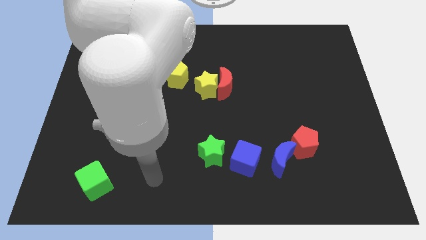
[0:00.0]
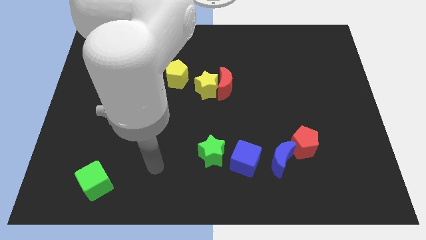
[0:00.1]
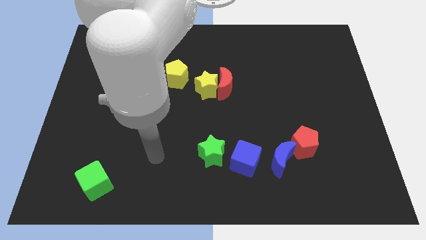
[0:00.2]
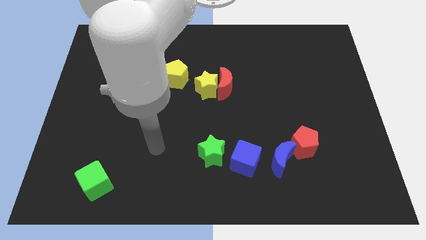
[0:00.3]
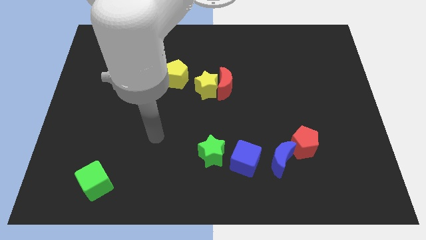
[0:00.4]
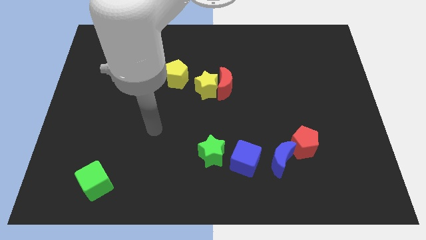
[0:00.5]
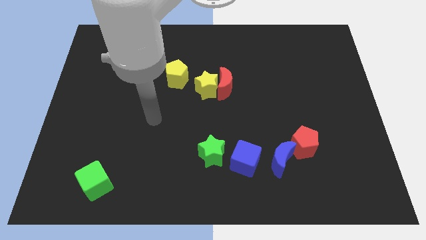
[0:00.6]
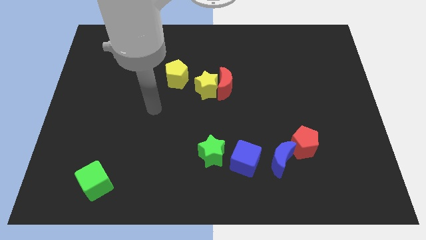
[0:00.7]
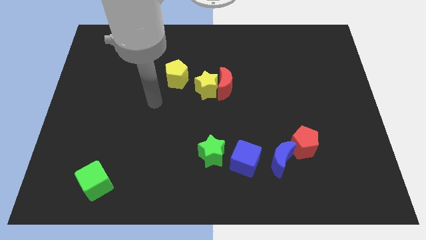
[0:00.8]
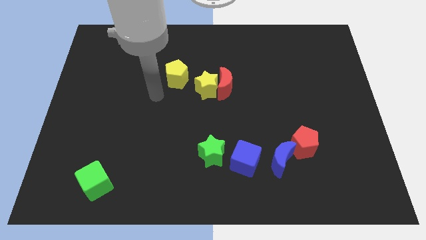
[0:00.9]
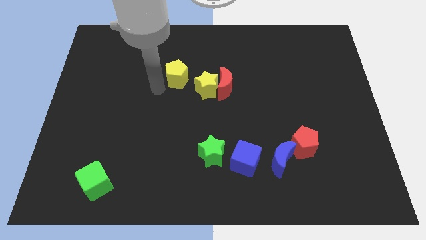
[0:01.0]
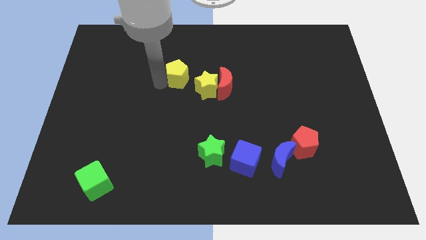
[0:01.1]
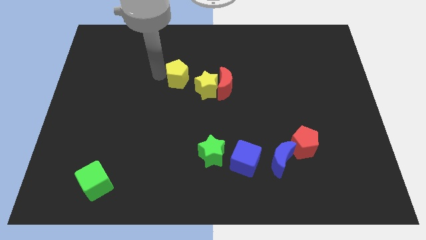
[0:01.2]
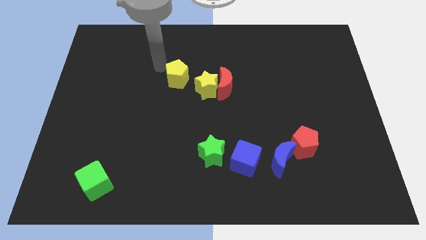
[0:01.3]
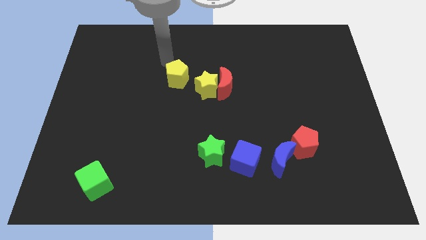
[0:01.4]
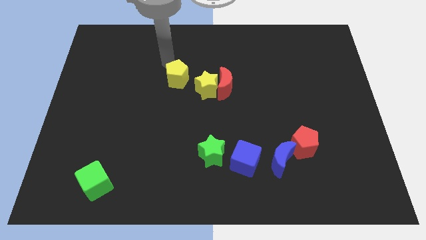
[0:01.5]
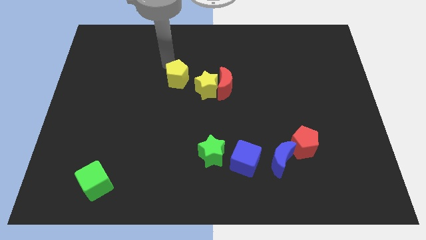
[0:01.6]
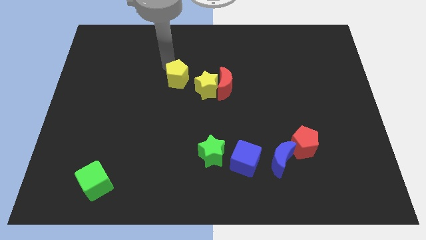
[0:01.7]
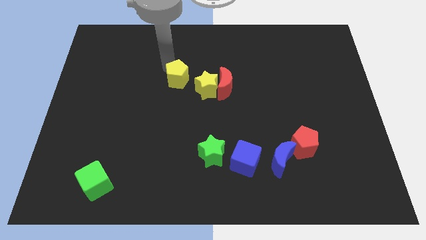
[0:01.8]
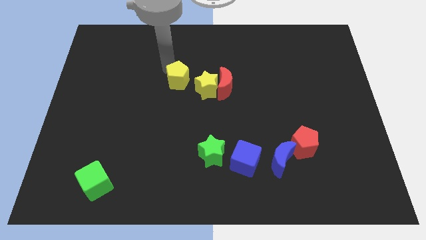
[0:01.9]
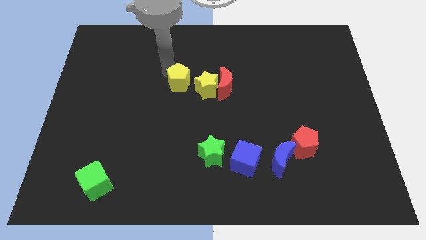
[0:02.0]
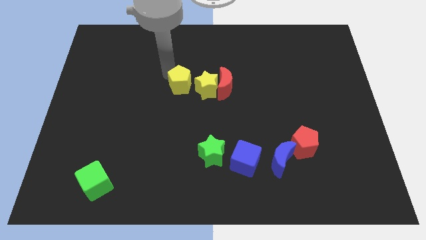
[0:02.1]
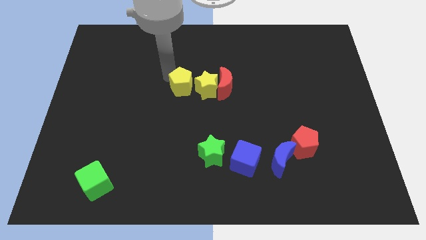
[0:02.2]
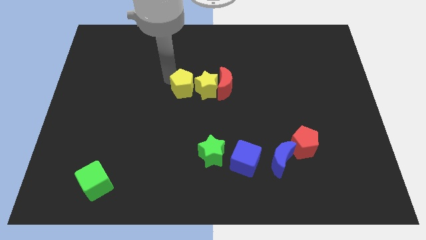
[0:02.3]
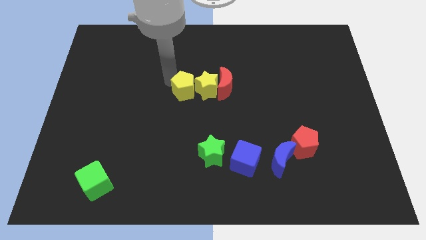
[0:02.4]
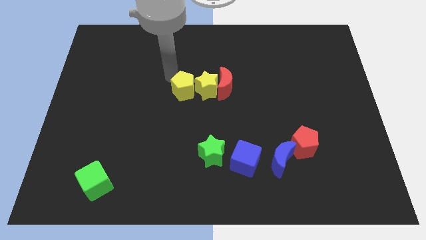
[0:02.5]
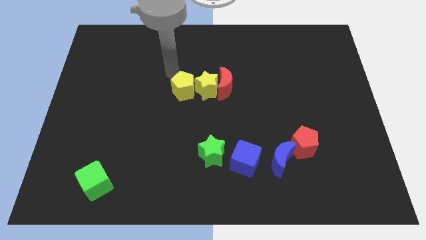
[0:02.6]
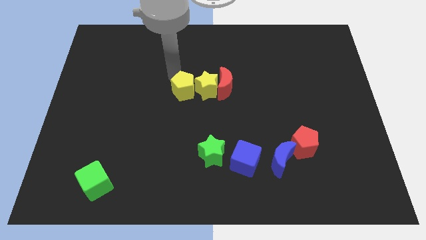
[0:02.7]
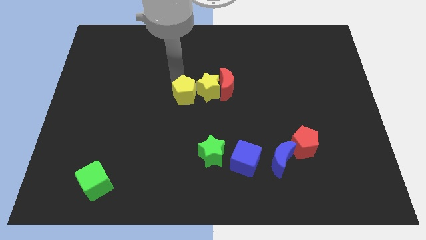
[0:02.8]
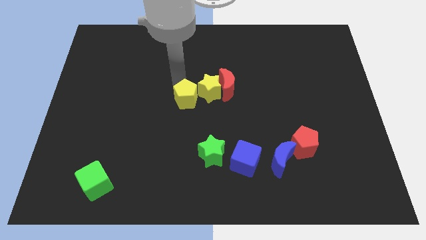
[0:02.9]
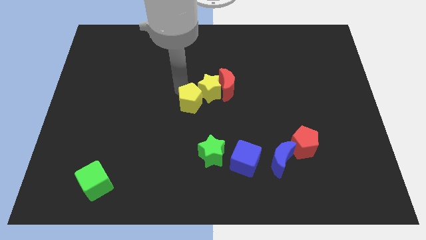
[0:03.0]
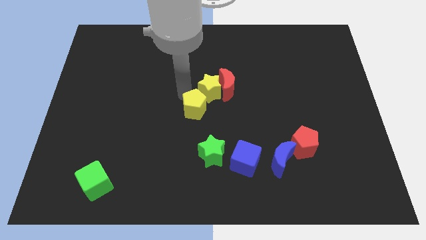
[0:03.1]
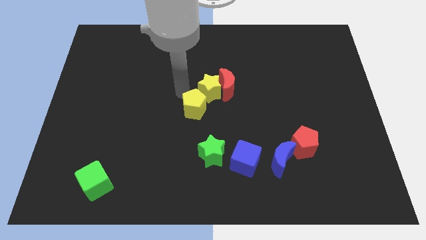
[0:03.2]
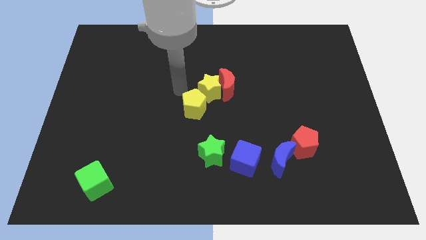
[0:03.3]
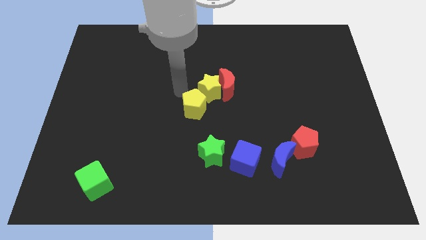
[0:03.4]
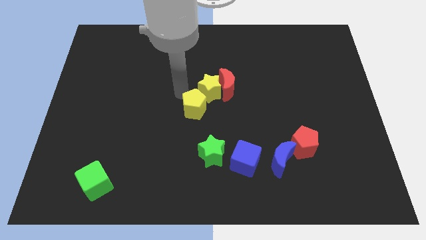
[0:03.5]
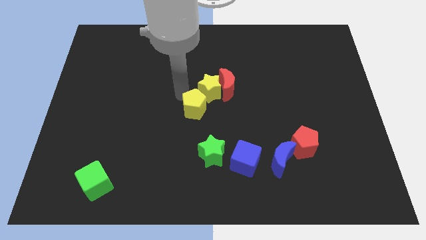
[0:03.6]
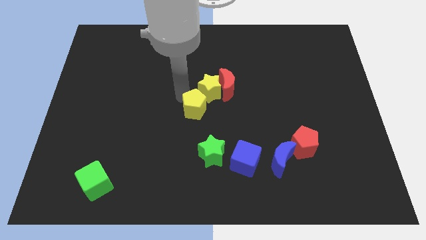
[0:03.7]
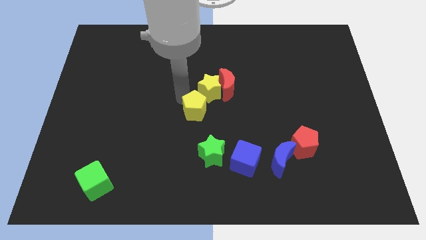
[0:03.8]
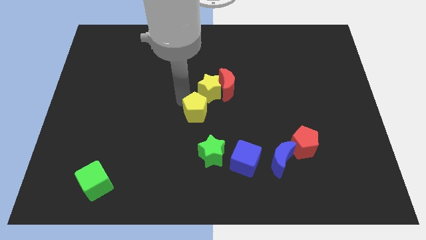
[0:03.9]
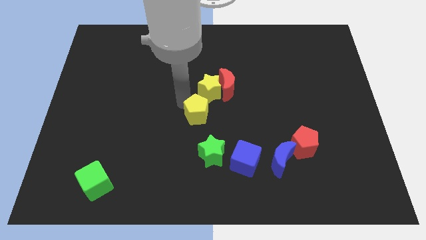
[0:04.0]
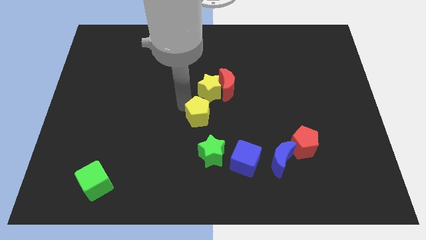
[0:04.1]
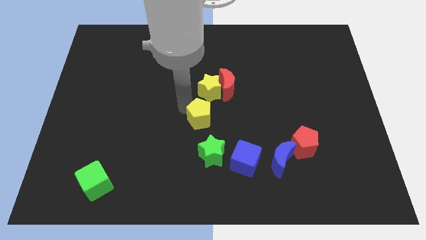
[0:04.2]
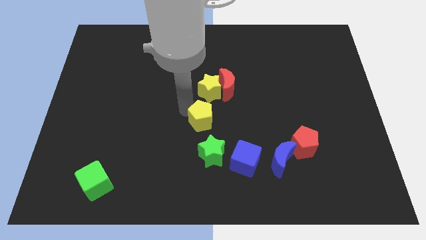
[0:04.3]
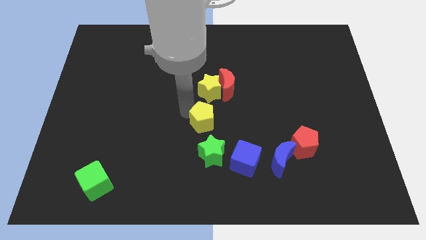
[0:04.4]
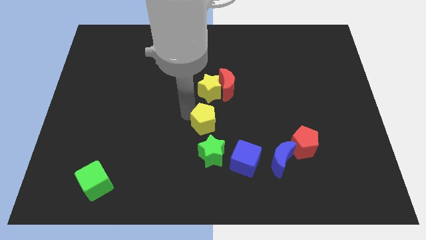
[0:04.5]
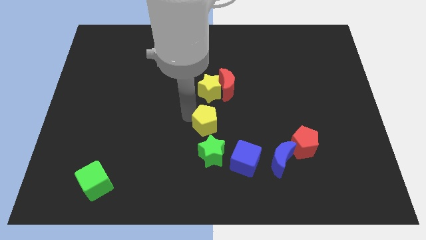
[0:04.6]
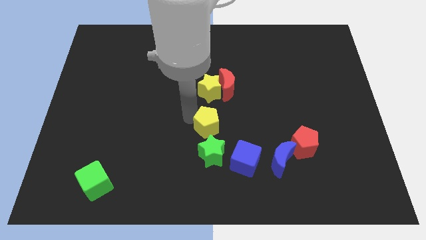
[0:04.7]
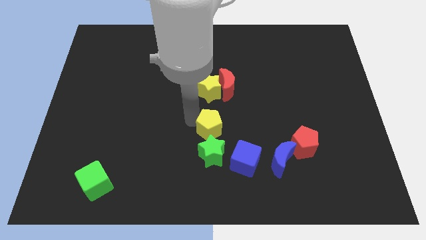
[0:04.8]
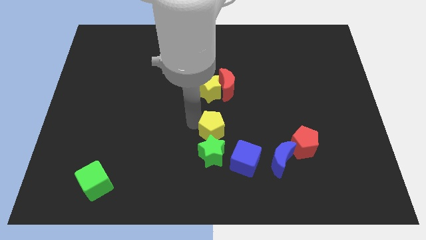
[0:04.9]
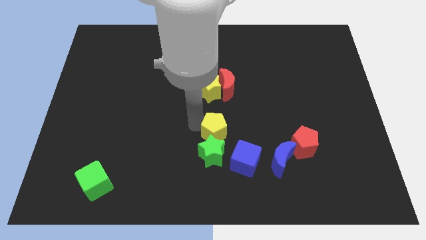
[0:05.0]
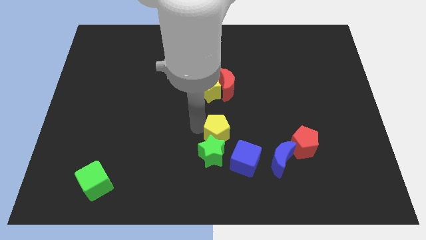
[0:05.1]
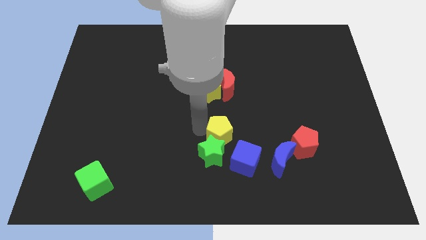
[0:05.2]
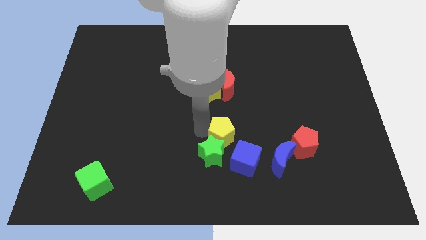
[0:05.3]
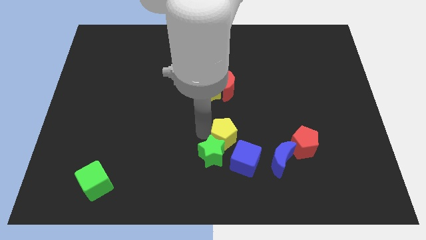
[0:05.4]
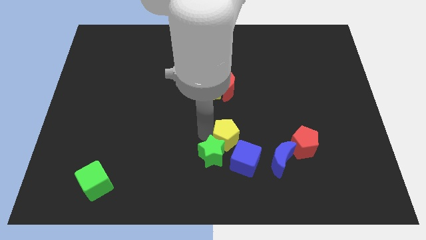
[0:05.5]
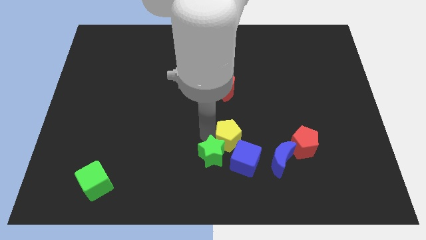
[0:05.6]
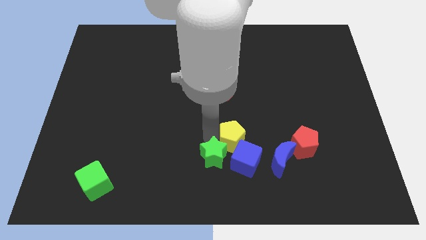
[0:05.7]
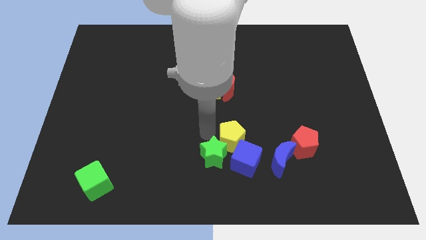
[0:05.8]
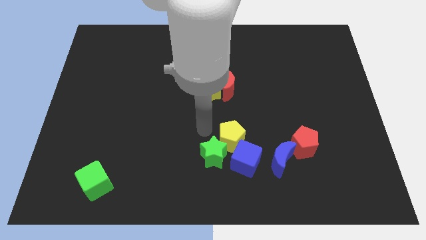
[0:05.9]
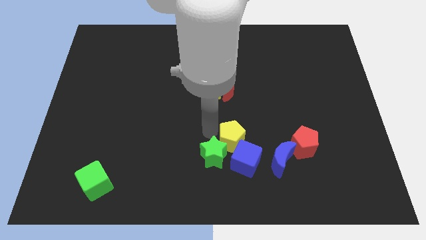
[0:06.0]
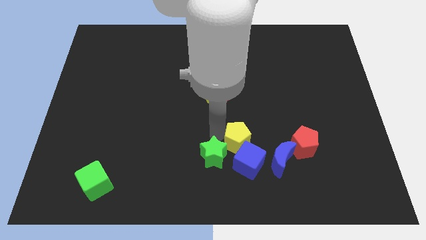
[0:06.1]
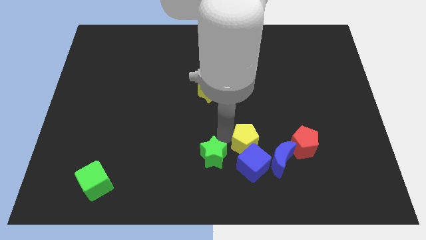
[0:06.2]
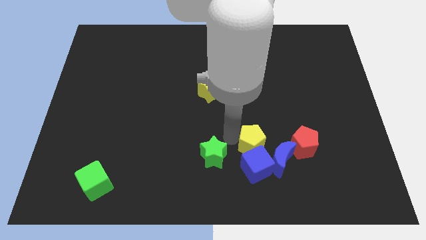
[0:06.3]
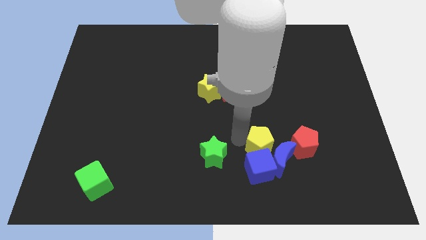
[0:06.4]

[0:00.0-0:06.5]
put the yellow pentagon next to the blue moon
